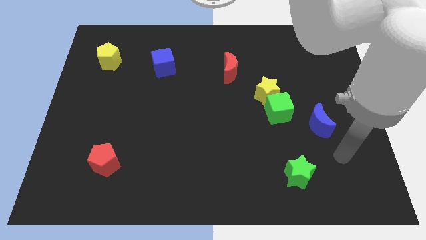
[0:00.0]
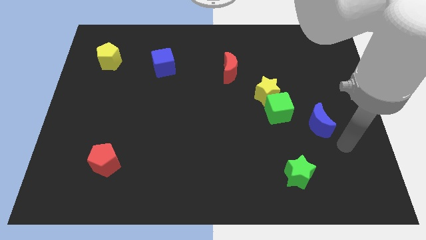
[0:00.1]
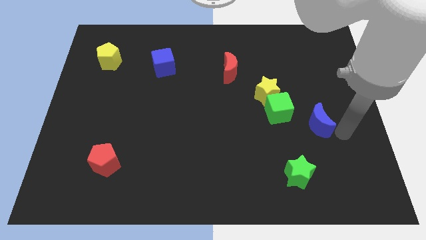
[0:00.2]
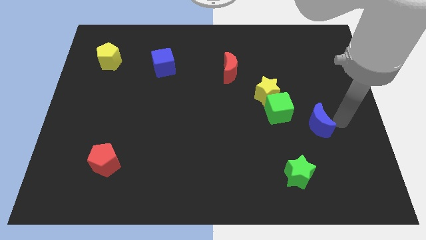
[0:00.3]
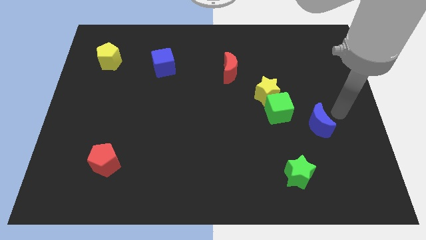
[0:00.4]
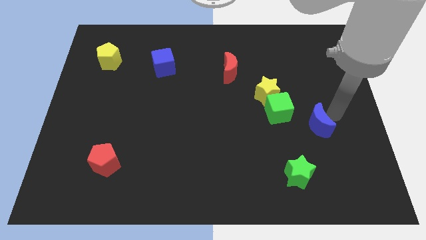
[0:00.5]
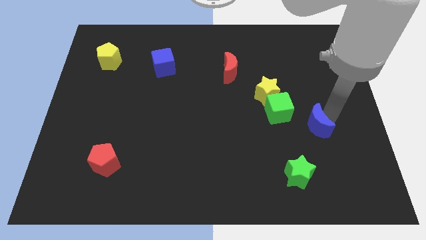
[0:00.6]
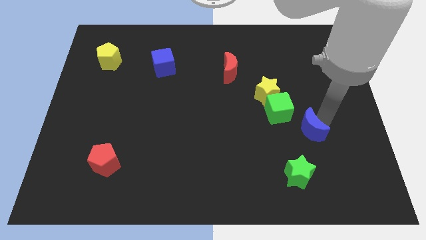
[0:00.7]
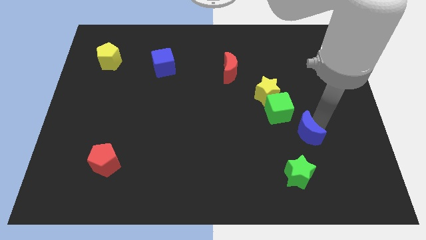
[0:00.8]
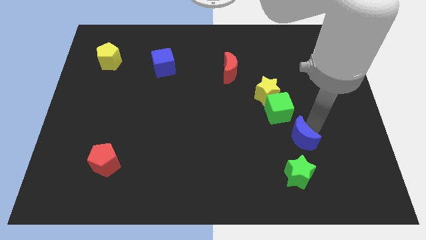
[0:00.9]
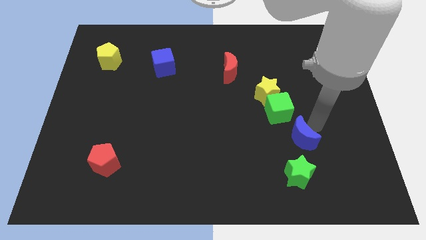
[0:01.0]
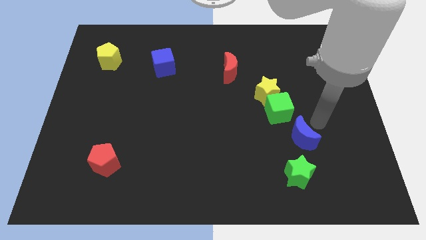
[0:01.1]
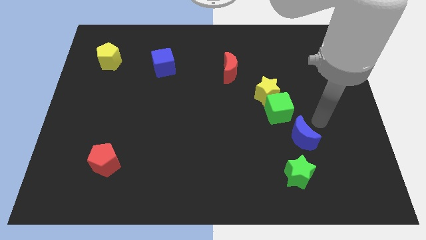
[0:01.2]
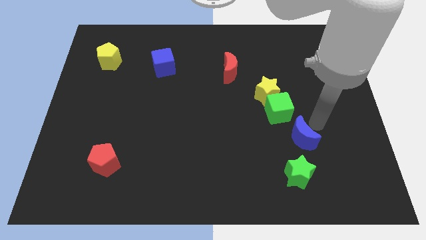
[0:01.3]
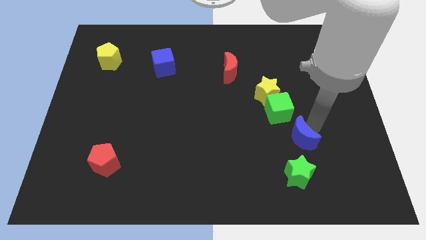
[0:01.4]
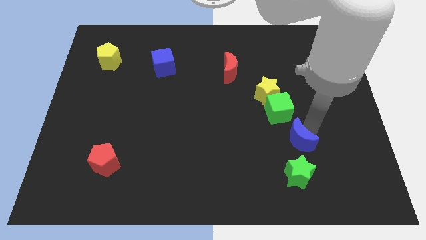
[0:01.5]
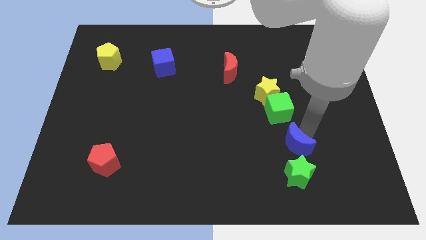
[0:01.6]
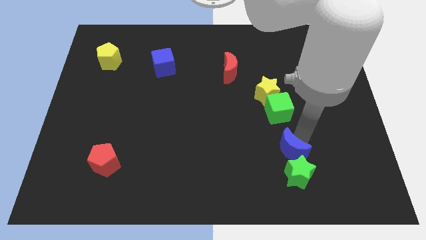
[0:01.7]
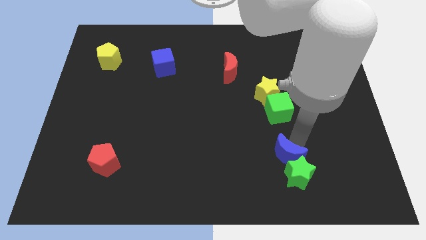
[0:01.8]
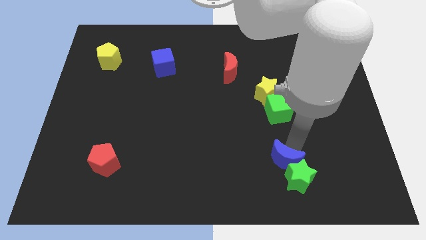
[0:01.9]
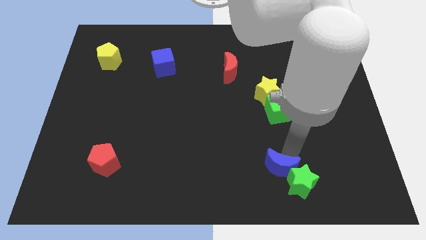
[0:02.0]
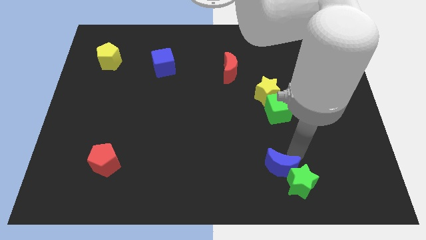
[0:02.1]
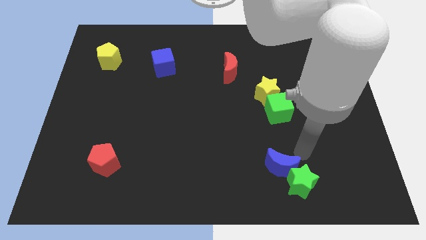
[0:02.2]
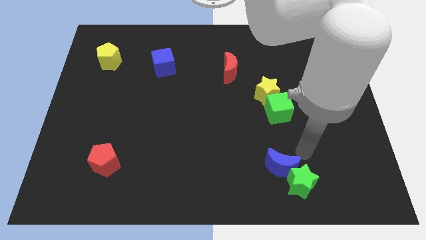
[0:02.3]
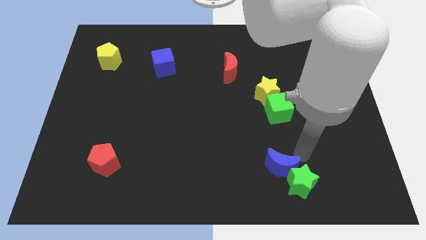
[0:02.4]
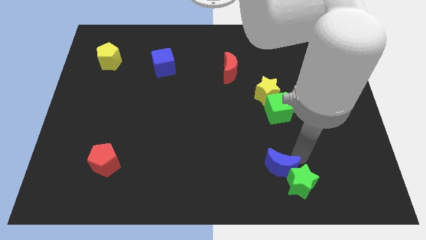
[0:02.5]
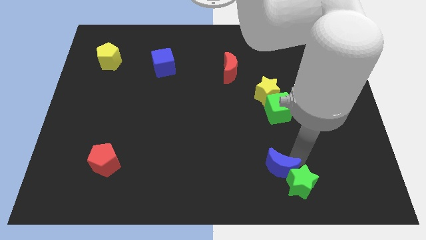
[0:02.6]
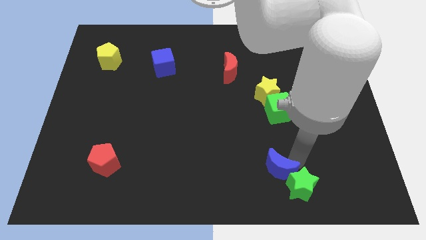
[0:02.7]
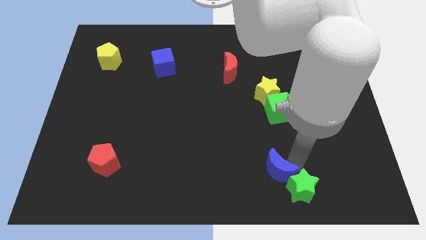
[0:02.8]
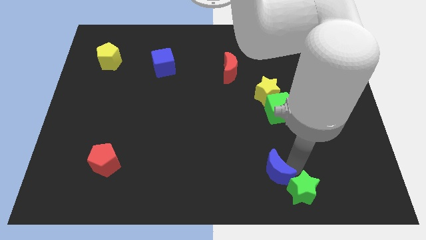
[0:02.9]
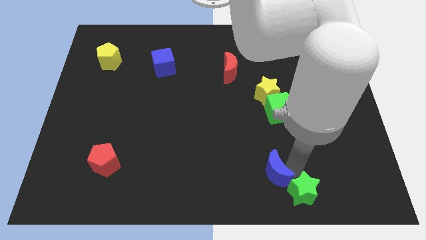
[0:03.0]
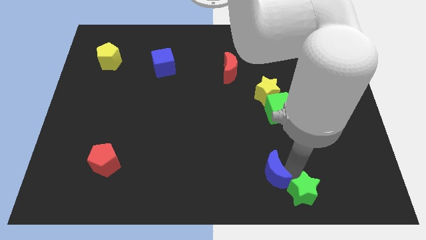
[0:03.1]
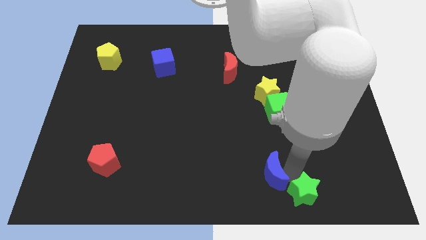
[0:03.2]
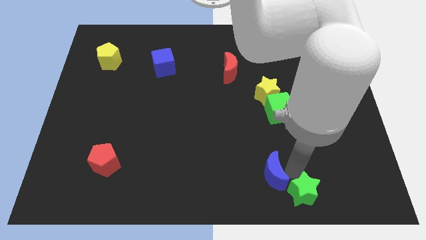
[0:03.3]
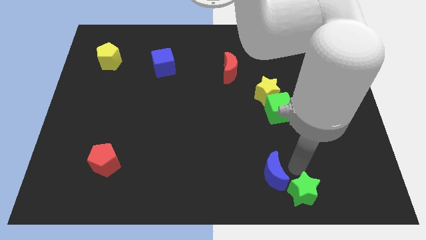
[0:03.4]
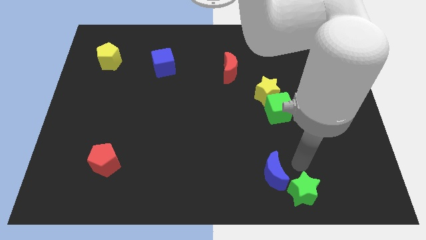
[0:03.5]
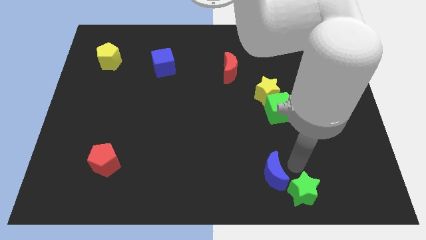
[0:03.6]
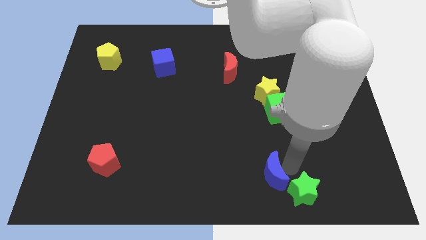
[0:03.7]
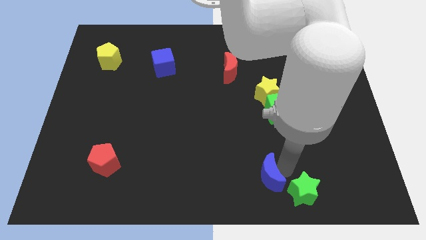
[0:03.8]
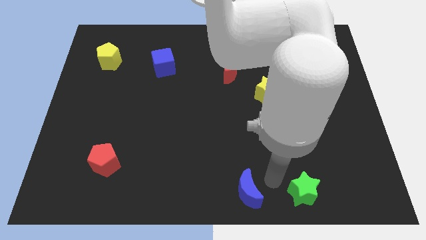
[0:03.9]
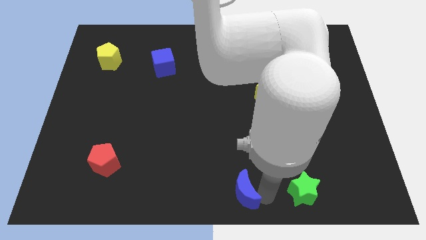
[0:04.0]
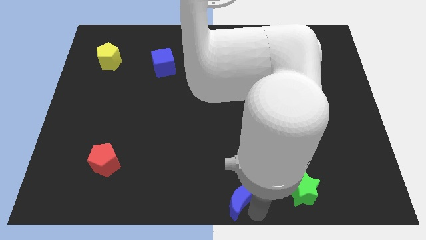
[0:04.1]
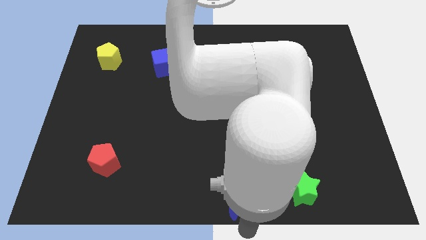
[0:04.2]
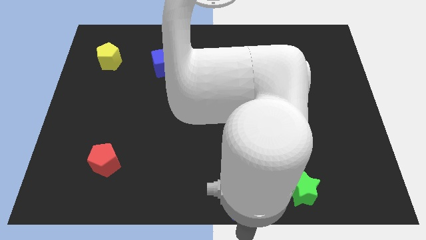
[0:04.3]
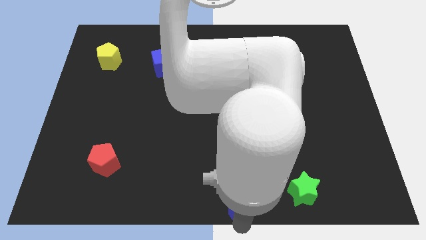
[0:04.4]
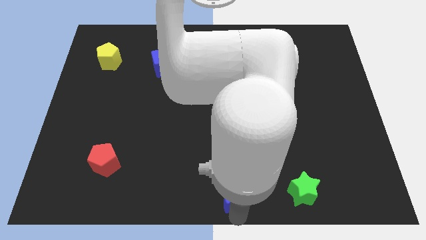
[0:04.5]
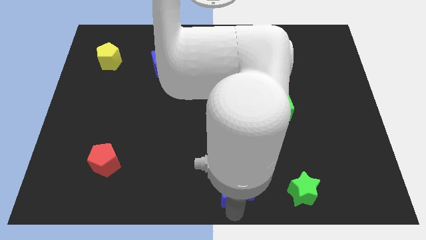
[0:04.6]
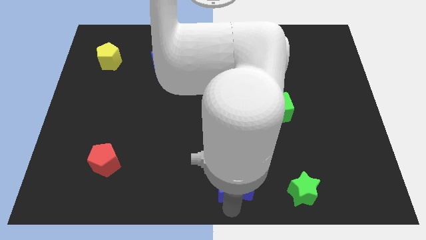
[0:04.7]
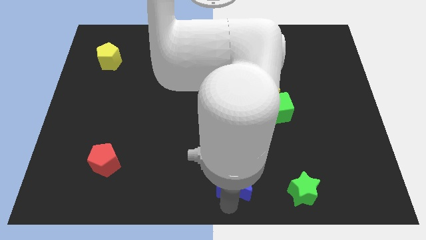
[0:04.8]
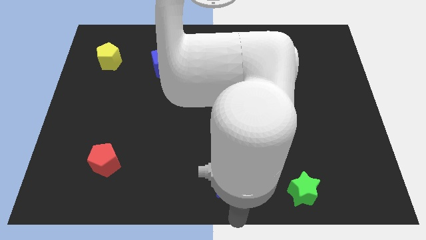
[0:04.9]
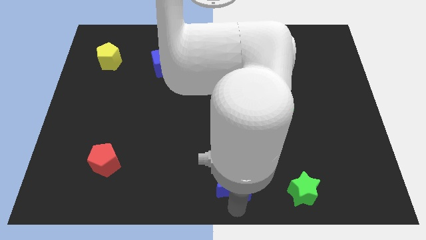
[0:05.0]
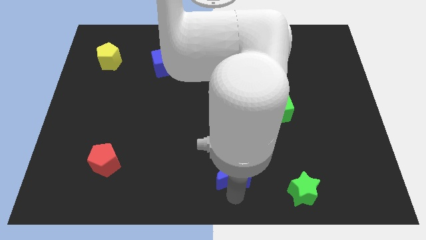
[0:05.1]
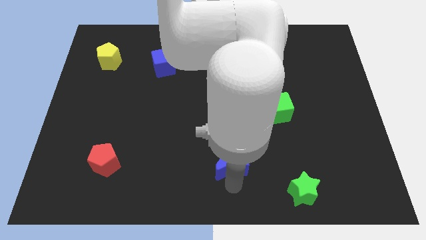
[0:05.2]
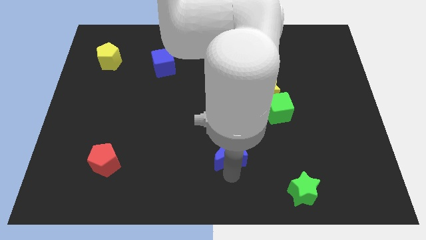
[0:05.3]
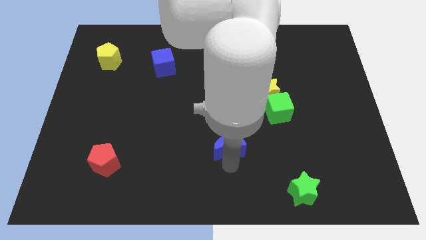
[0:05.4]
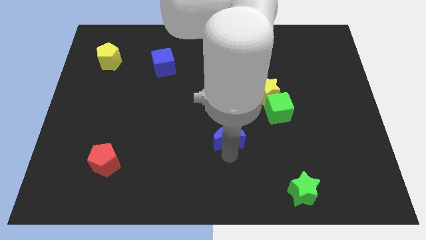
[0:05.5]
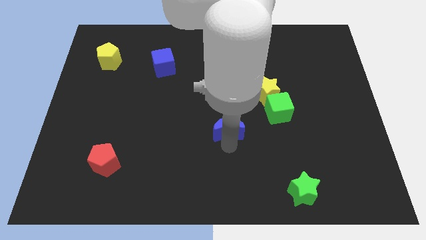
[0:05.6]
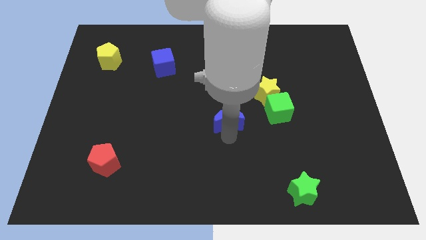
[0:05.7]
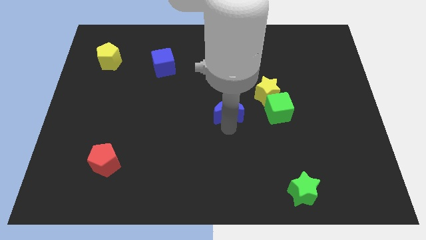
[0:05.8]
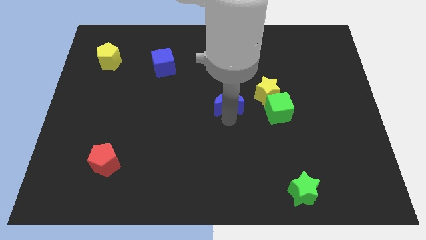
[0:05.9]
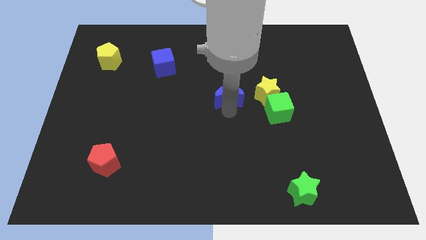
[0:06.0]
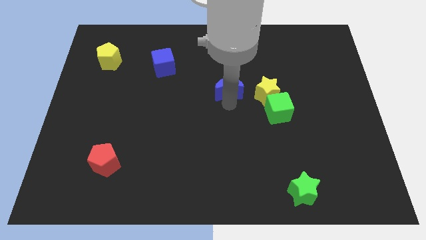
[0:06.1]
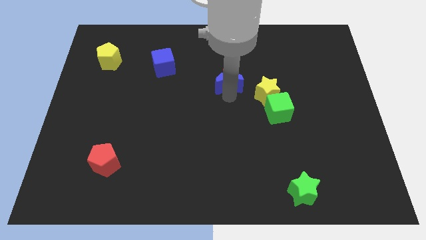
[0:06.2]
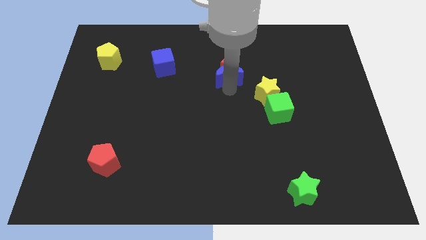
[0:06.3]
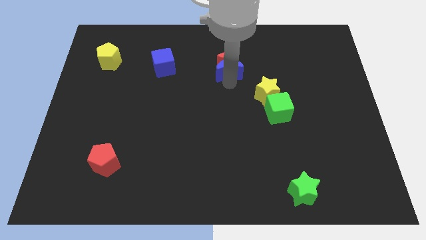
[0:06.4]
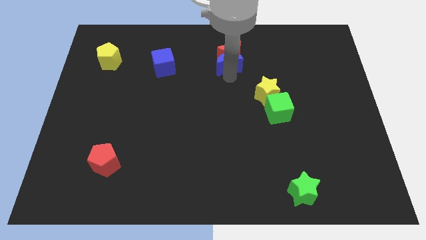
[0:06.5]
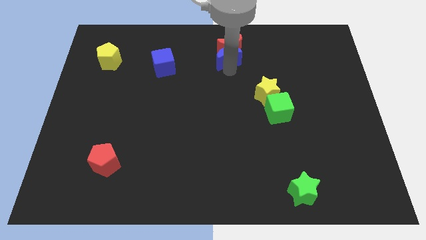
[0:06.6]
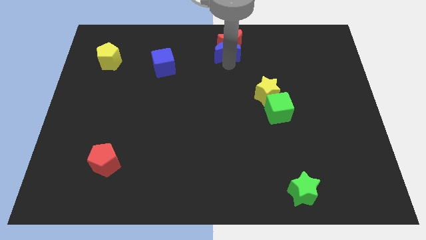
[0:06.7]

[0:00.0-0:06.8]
put the blue moon to the top side
